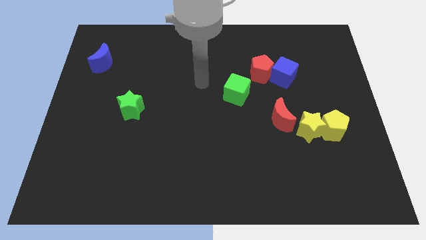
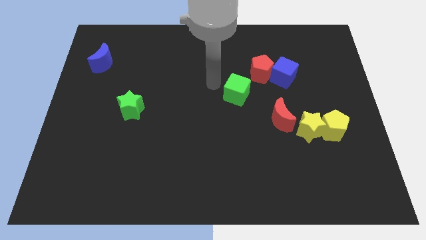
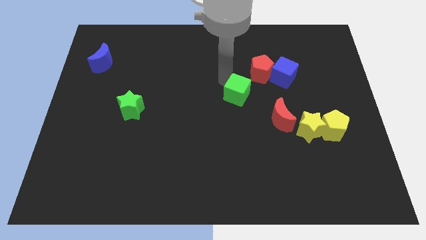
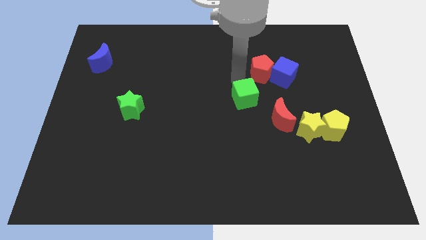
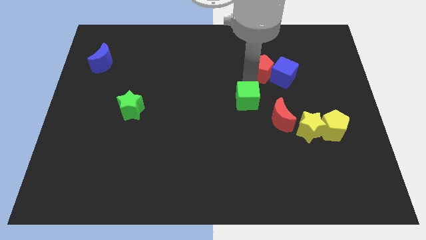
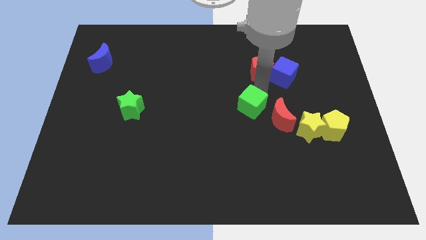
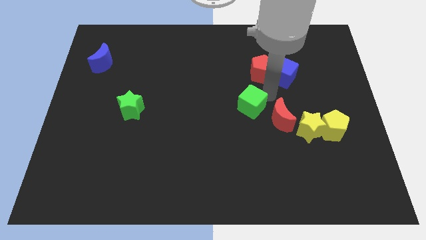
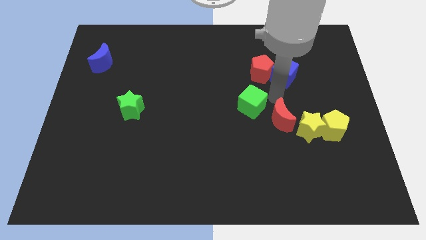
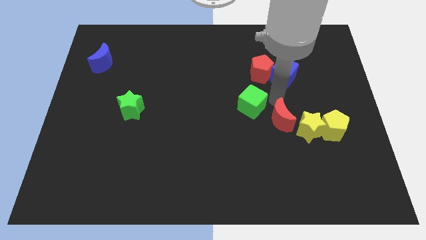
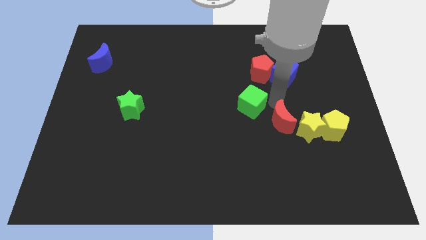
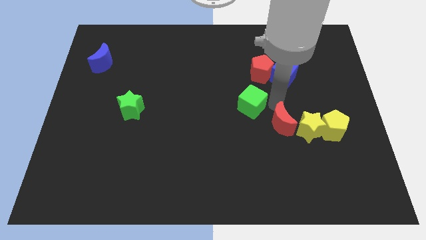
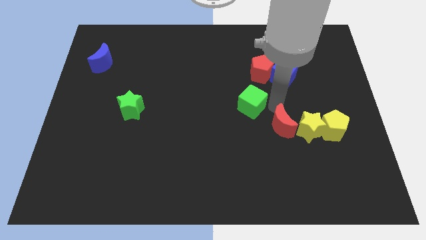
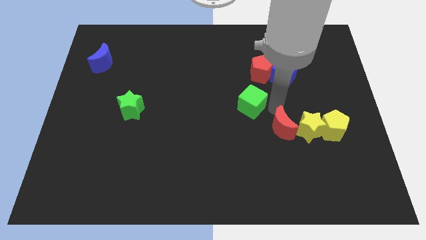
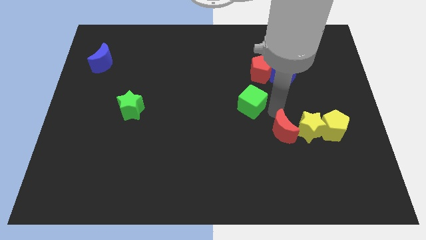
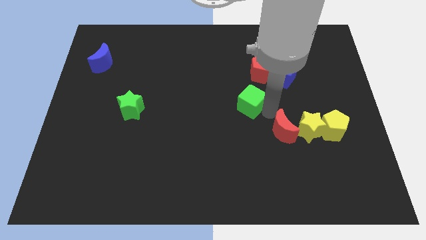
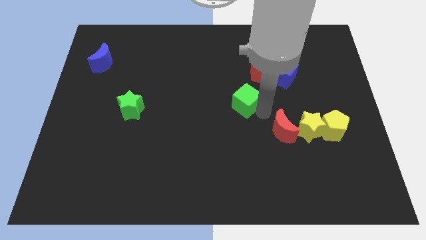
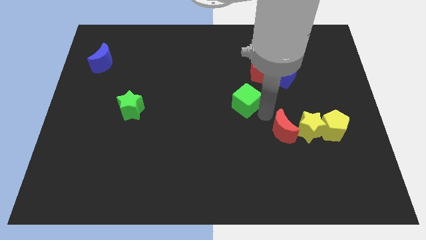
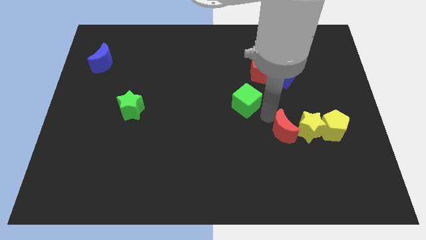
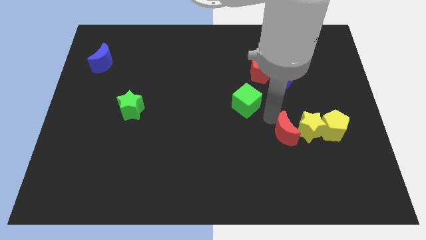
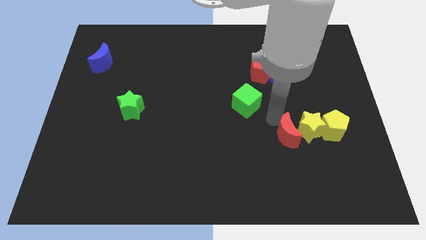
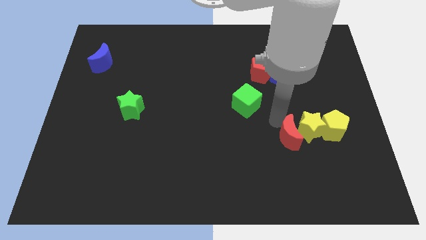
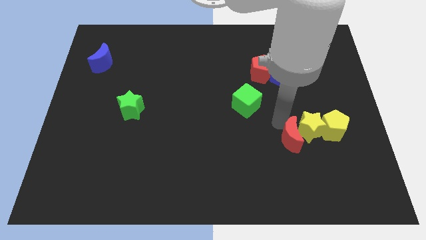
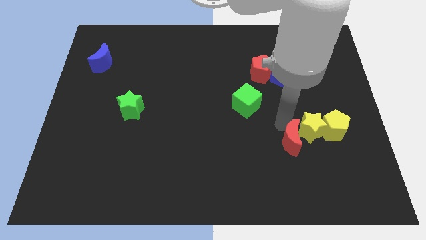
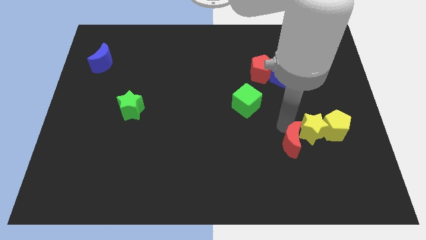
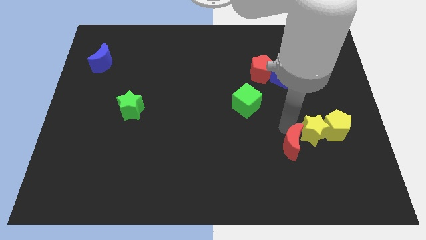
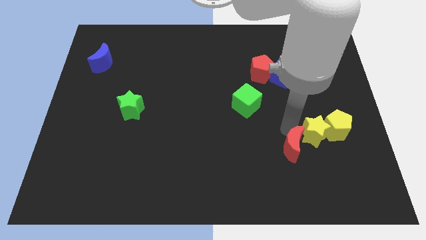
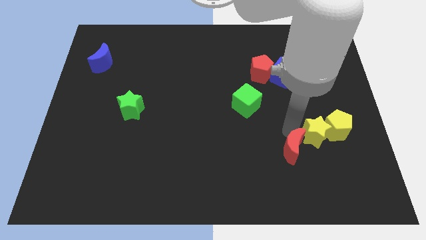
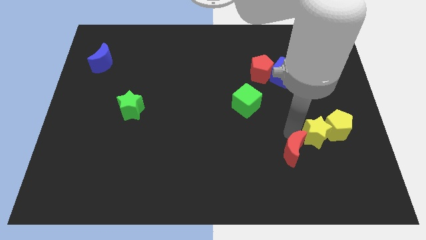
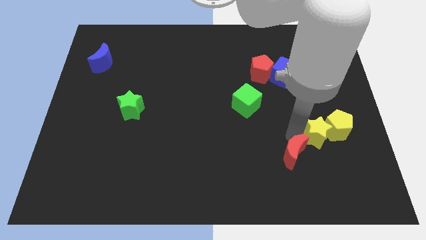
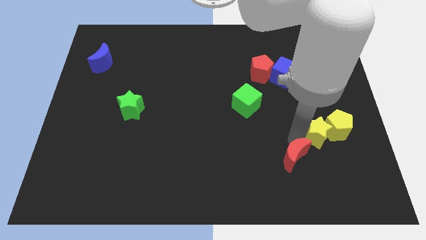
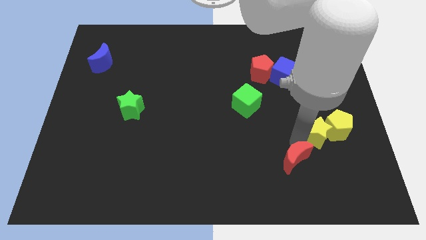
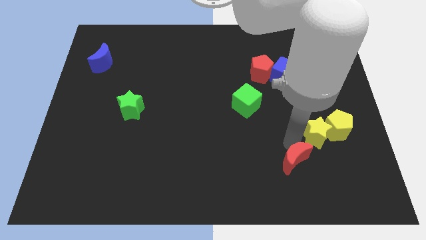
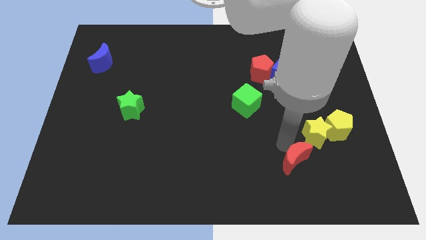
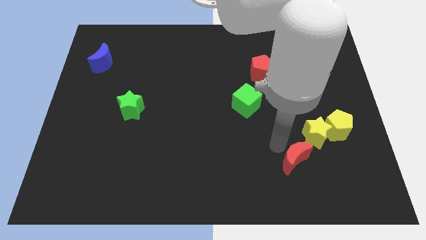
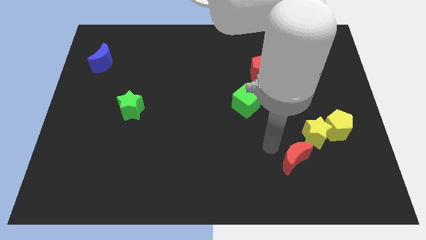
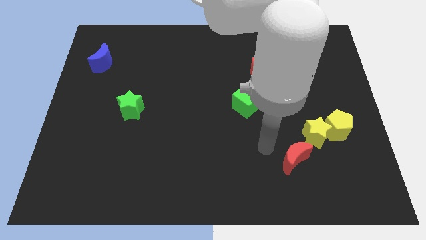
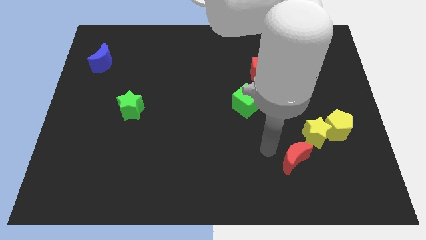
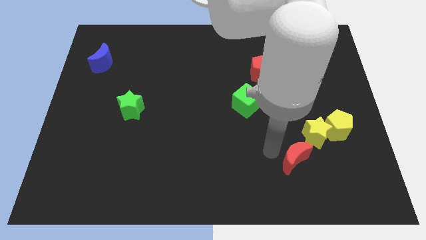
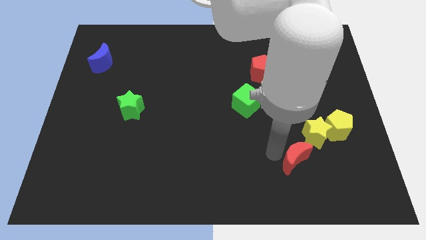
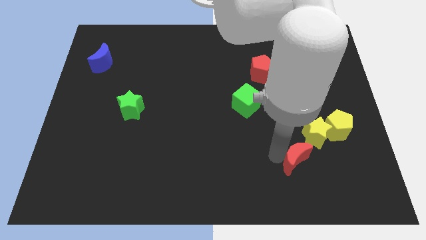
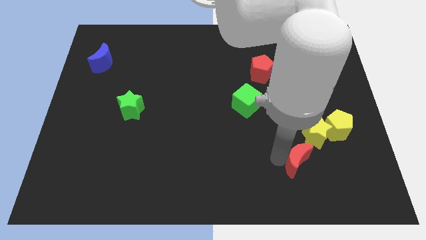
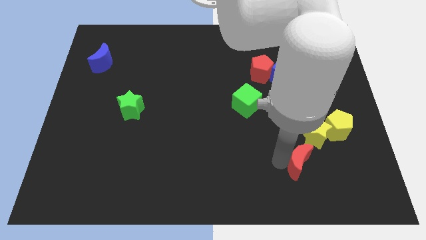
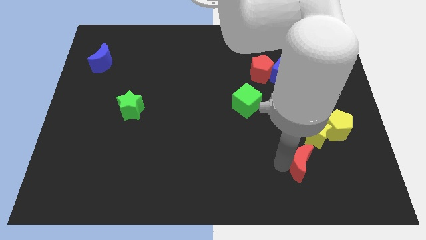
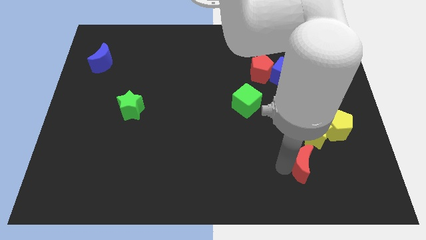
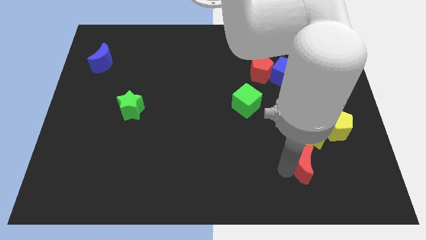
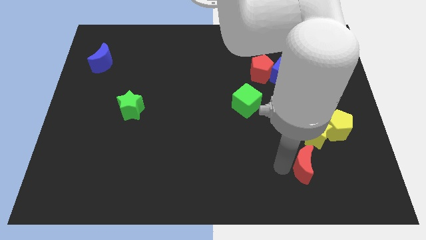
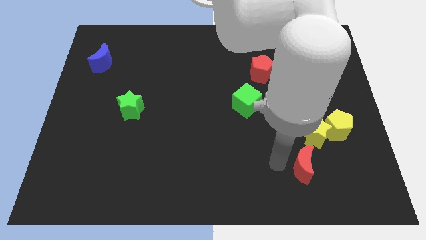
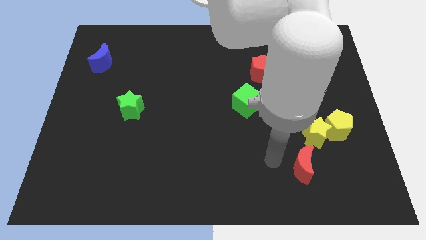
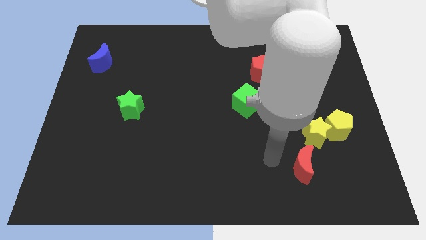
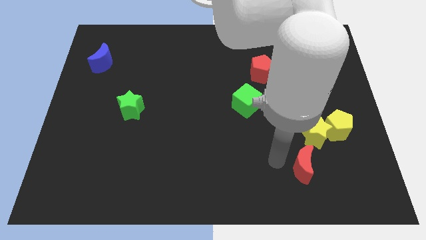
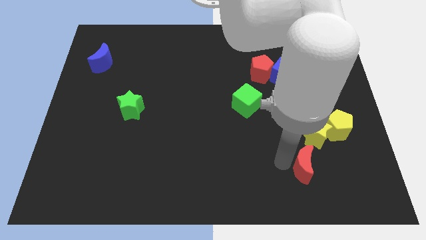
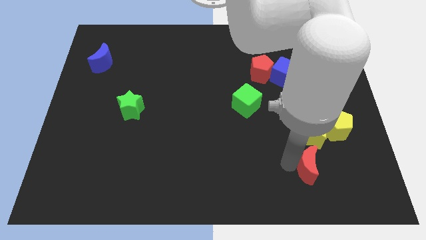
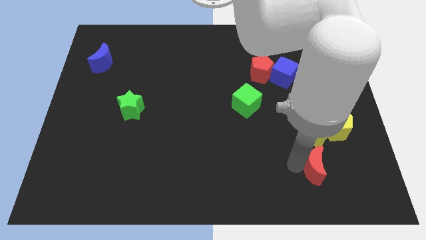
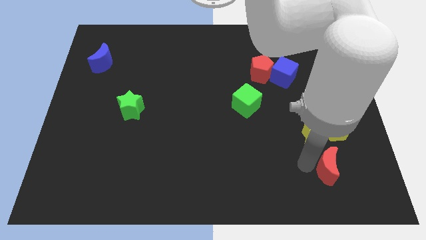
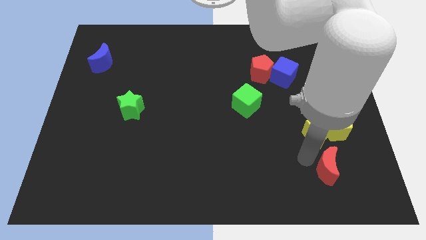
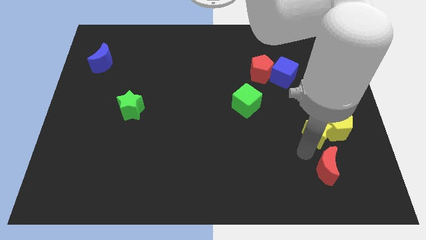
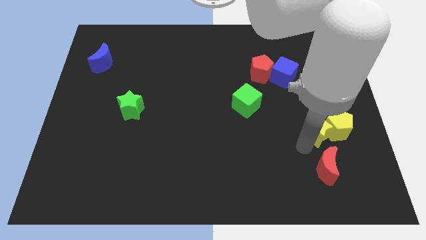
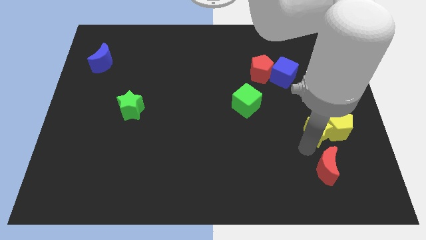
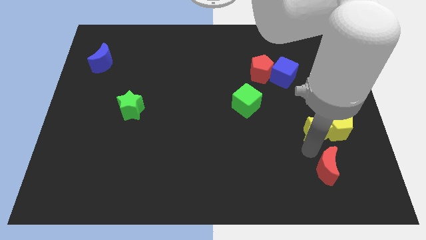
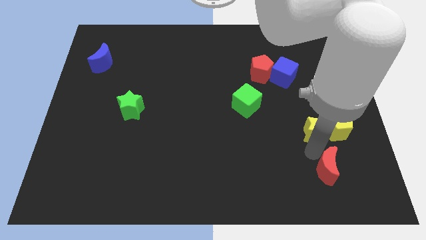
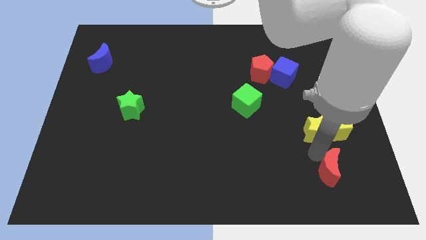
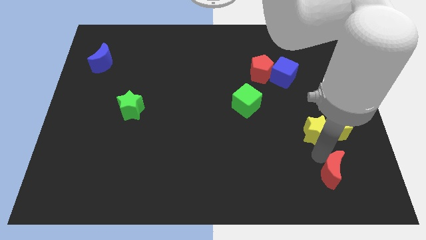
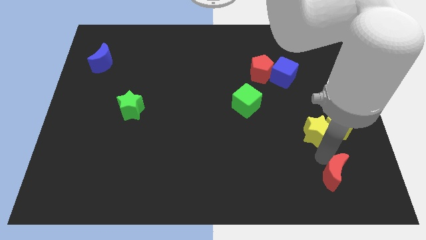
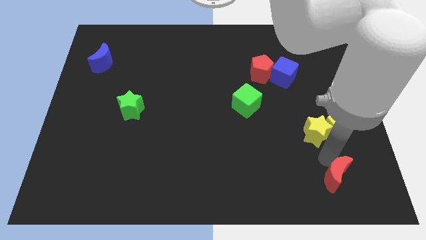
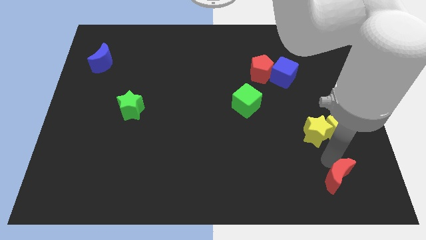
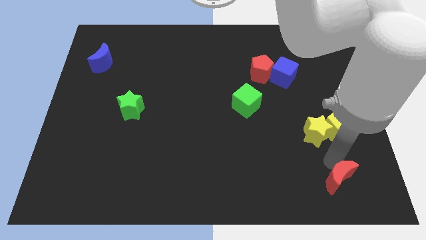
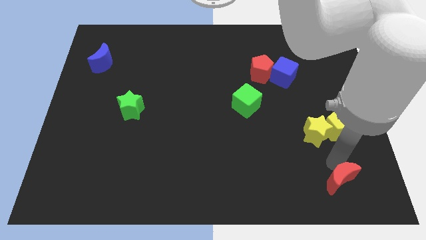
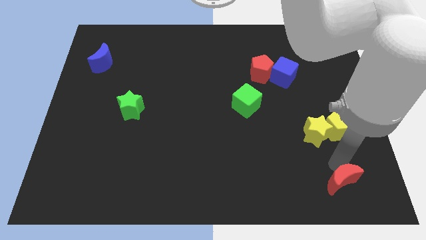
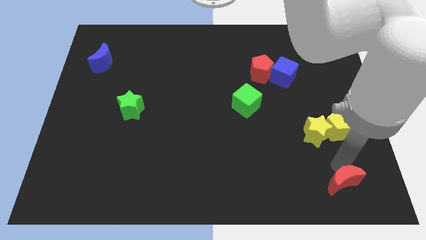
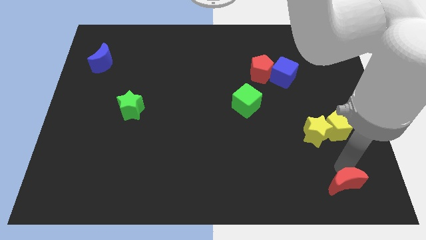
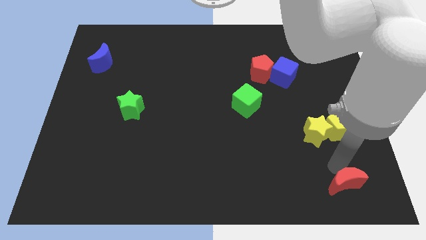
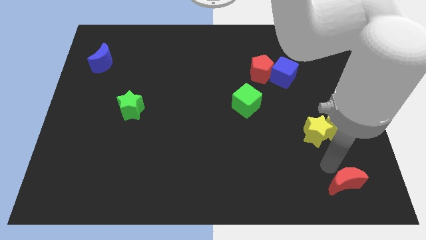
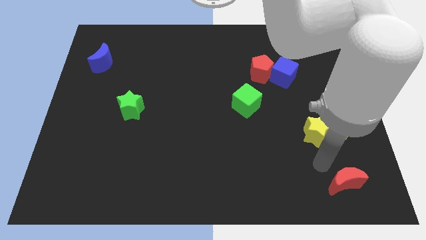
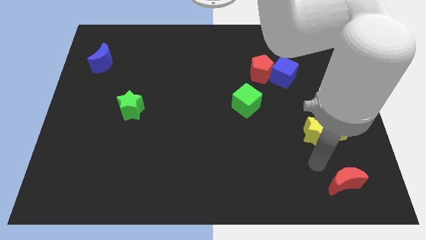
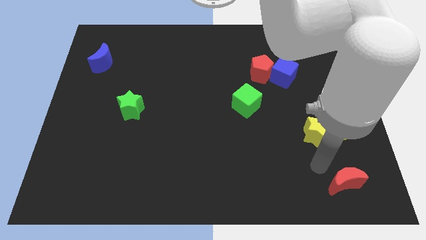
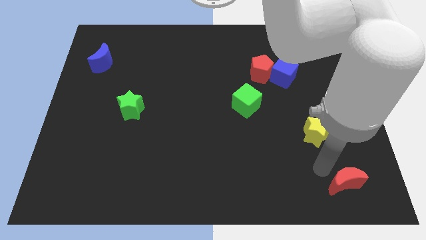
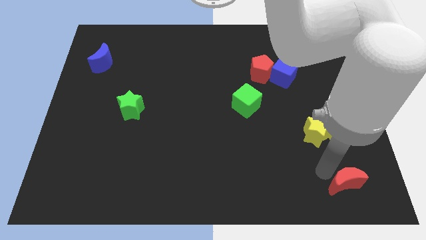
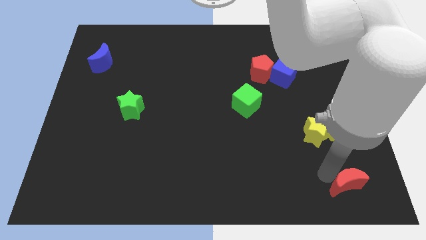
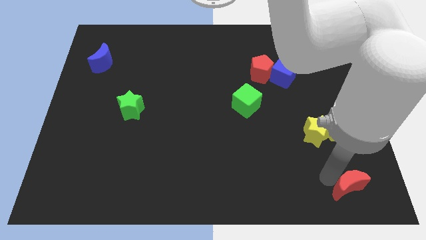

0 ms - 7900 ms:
push the red moon to the bottom right of the board
